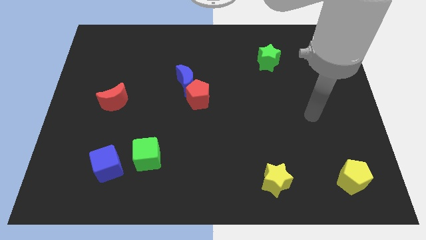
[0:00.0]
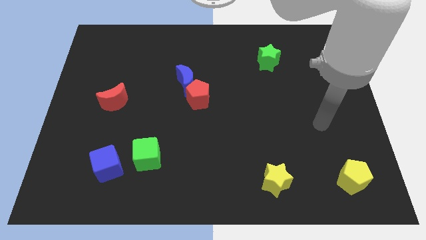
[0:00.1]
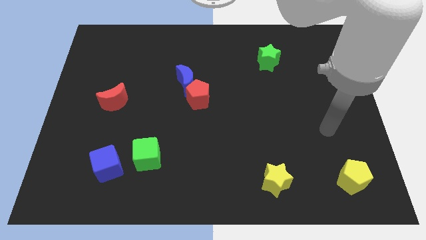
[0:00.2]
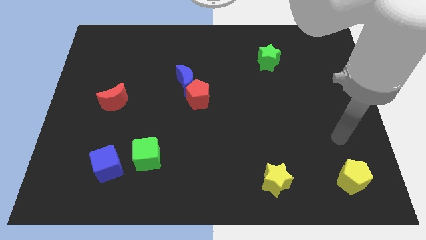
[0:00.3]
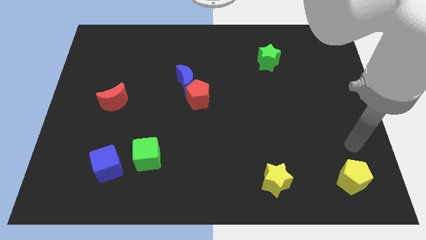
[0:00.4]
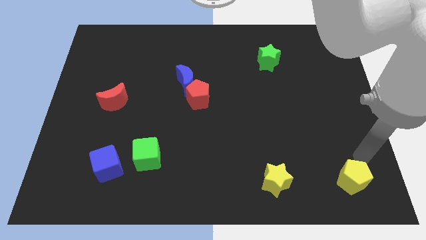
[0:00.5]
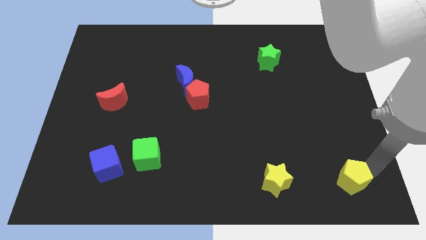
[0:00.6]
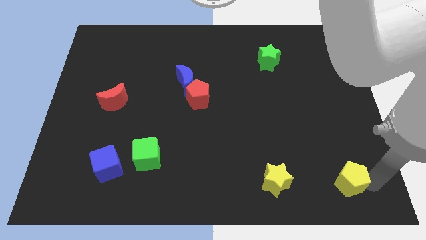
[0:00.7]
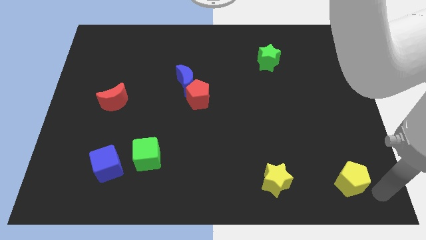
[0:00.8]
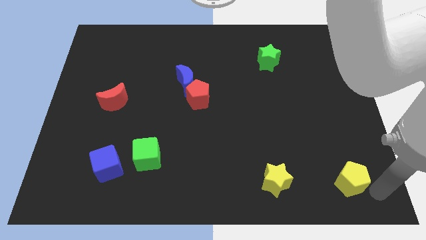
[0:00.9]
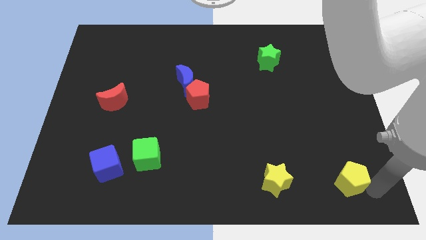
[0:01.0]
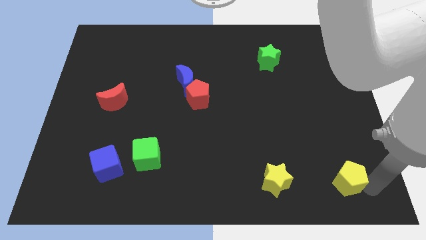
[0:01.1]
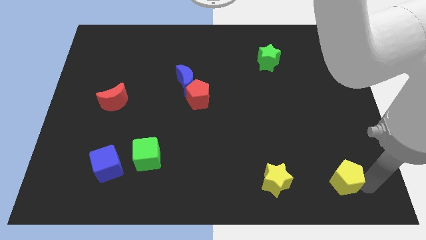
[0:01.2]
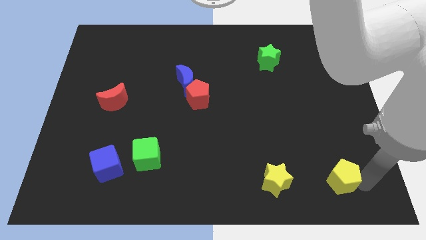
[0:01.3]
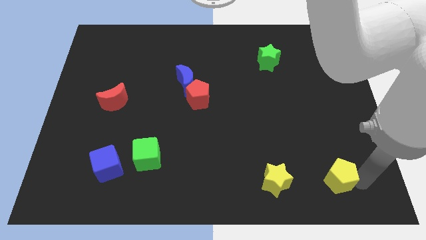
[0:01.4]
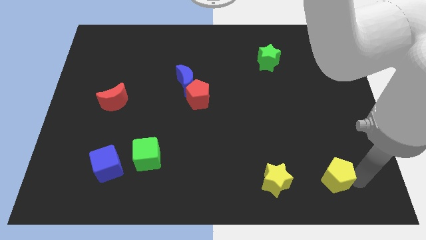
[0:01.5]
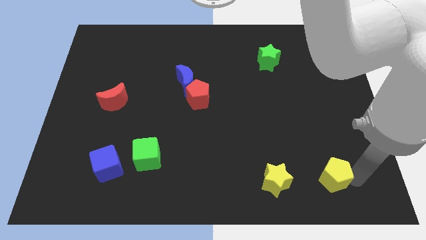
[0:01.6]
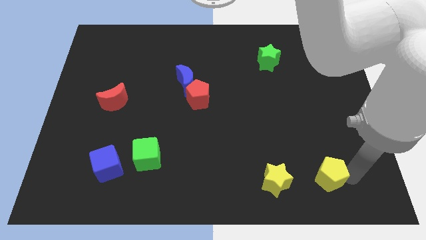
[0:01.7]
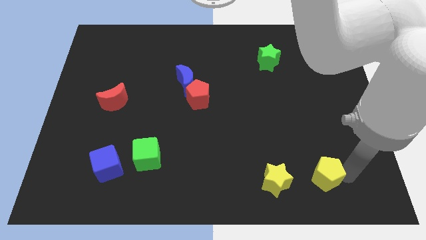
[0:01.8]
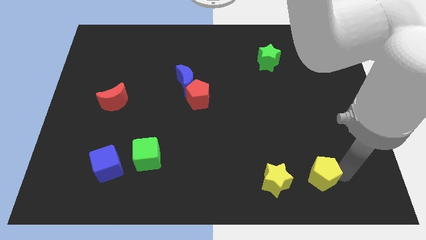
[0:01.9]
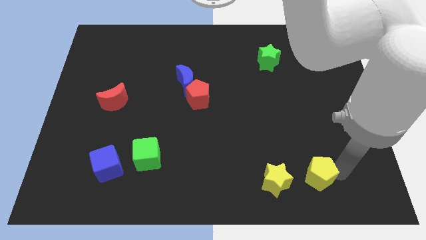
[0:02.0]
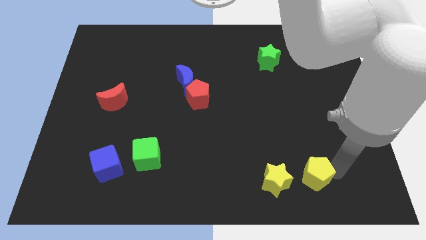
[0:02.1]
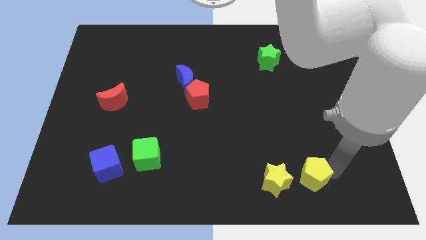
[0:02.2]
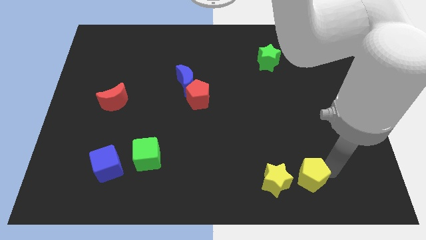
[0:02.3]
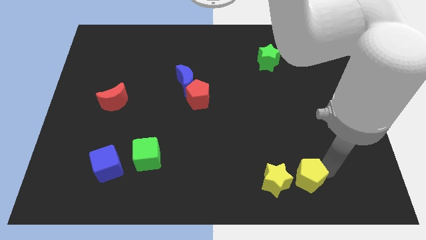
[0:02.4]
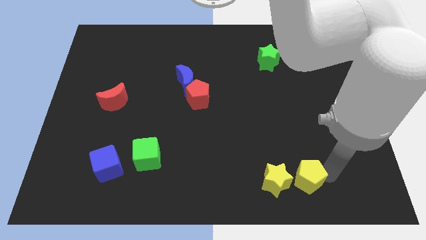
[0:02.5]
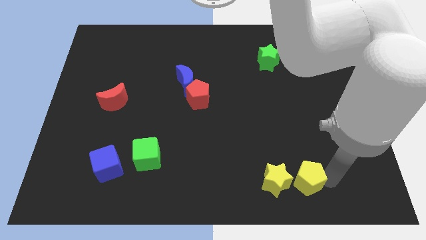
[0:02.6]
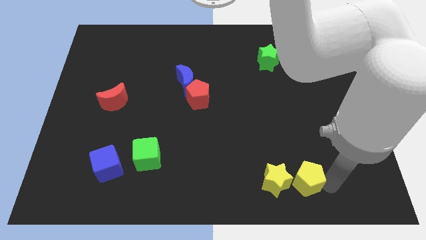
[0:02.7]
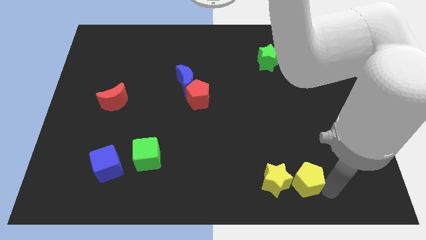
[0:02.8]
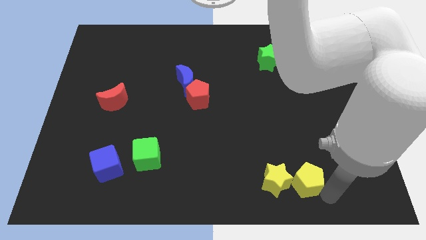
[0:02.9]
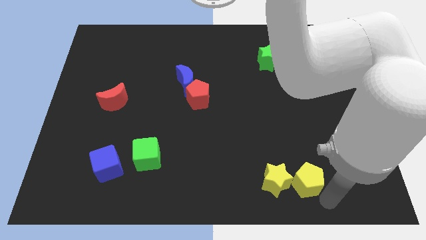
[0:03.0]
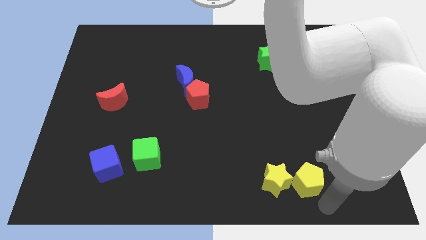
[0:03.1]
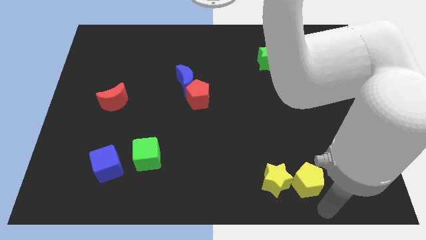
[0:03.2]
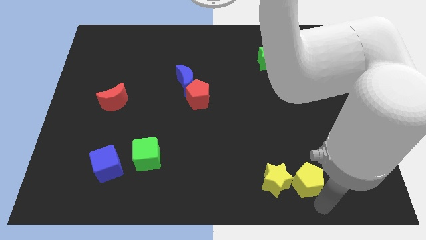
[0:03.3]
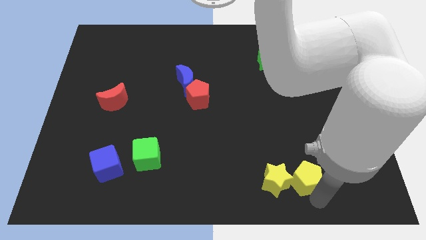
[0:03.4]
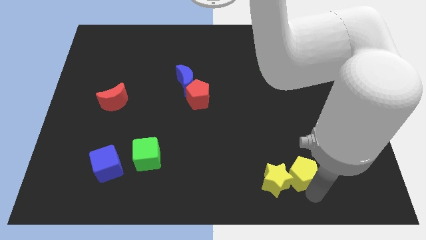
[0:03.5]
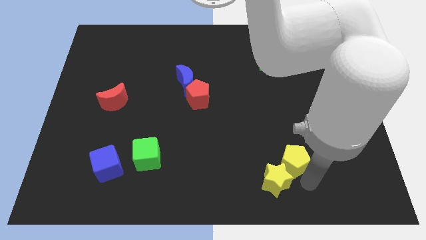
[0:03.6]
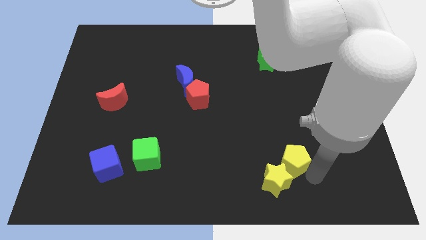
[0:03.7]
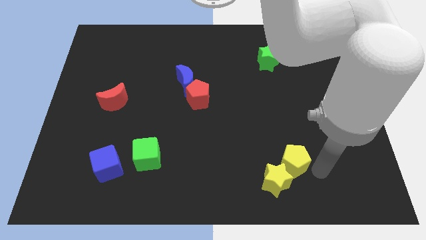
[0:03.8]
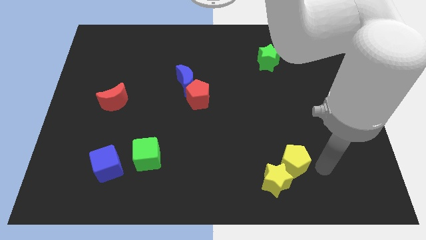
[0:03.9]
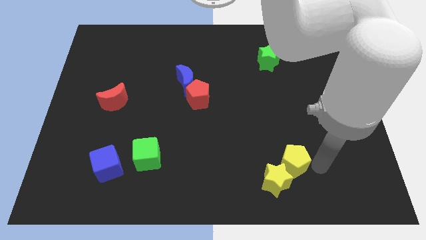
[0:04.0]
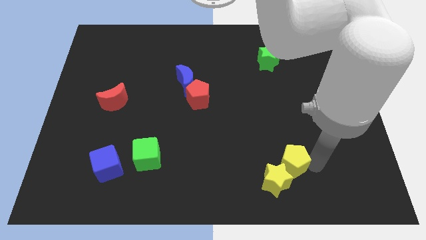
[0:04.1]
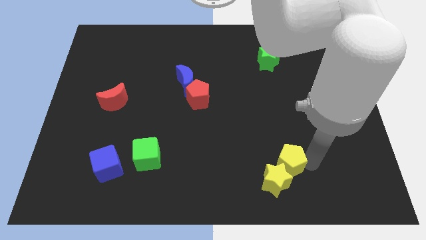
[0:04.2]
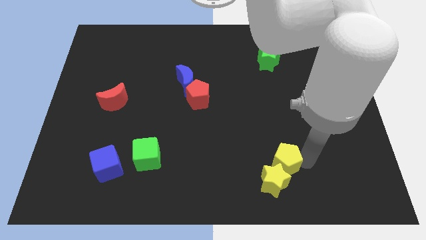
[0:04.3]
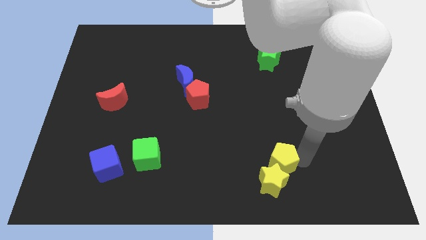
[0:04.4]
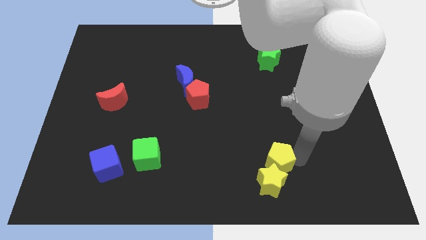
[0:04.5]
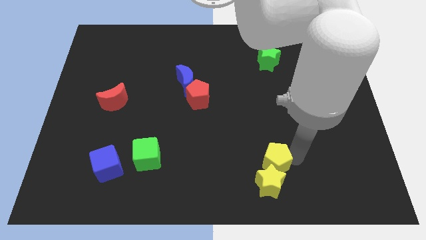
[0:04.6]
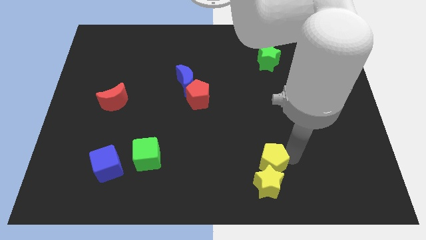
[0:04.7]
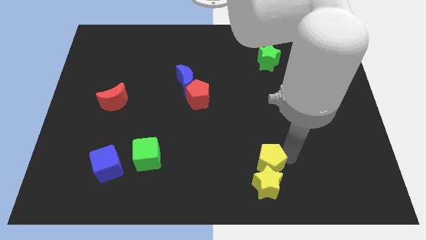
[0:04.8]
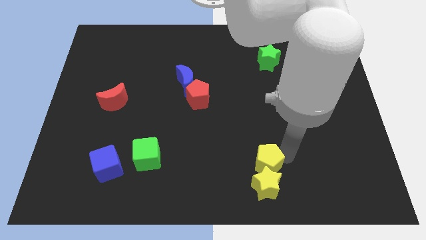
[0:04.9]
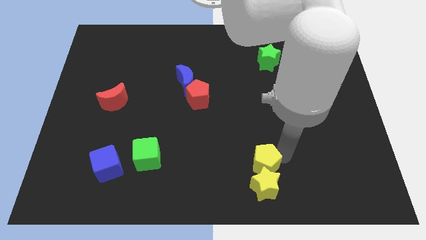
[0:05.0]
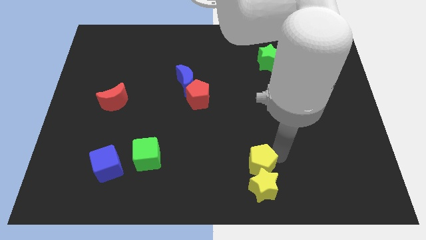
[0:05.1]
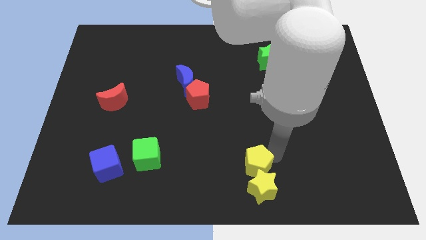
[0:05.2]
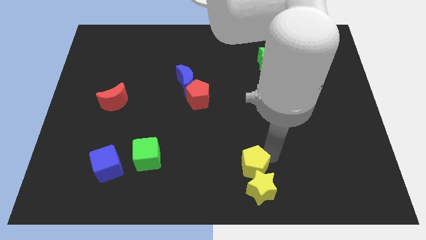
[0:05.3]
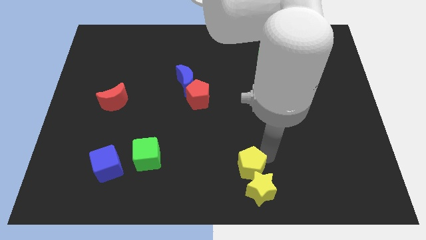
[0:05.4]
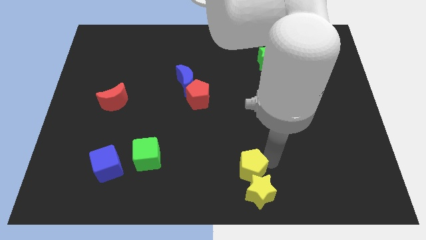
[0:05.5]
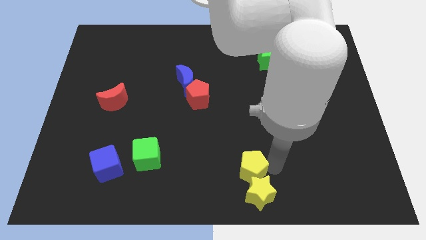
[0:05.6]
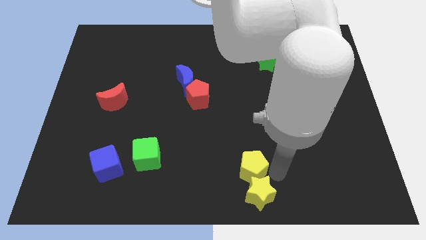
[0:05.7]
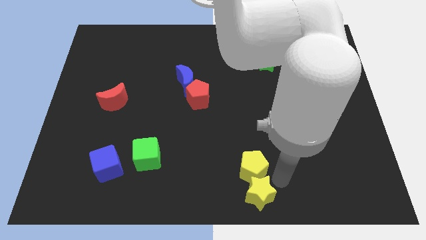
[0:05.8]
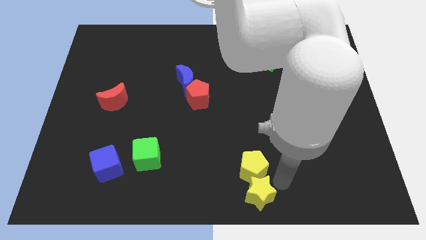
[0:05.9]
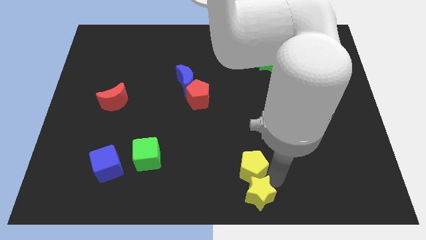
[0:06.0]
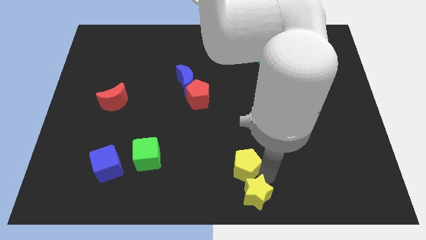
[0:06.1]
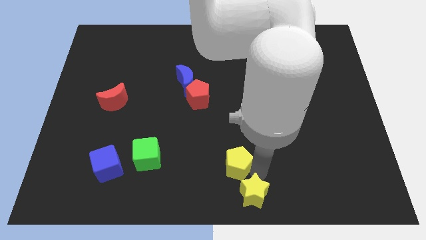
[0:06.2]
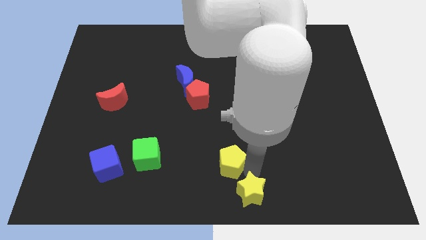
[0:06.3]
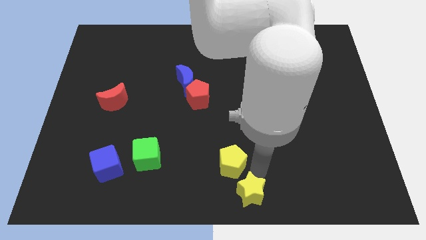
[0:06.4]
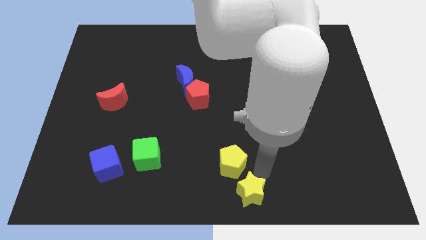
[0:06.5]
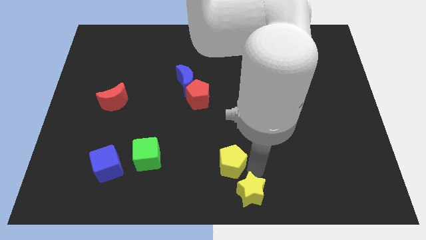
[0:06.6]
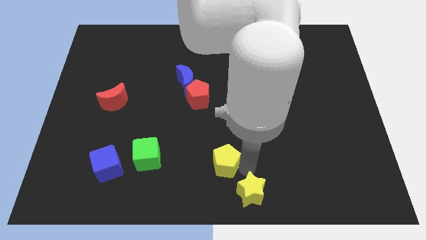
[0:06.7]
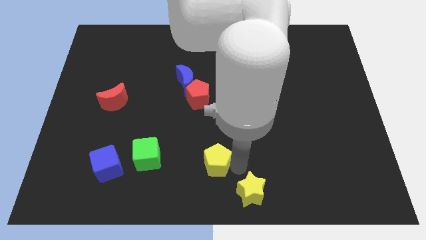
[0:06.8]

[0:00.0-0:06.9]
move the yellow pentagon to the right side of the green cube
